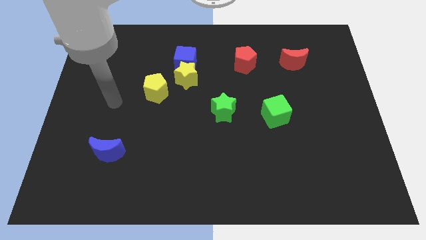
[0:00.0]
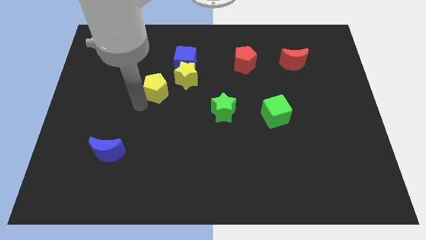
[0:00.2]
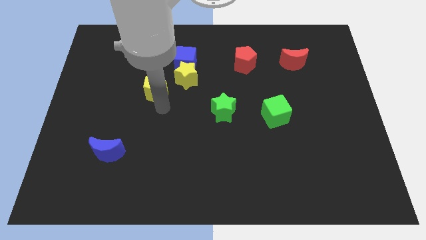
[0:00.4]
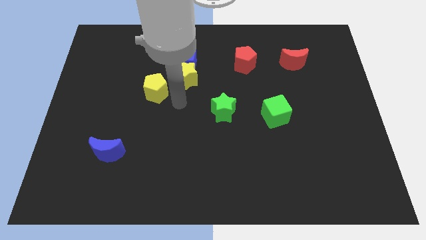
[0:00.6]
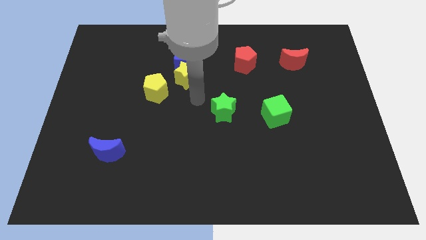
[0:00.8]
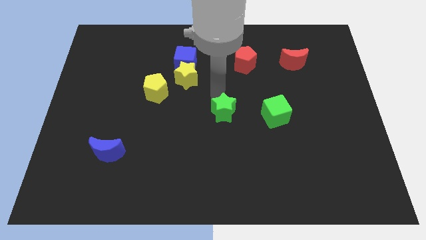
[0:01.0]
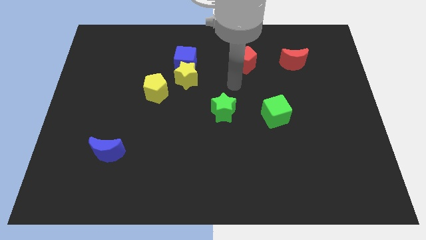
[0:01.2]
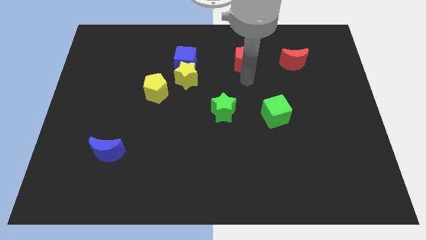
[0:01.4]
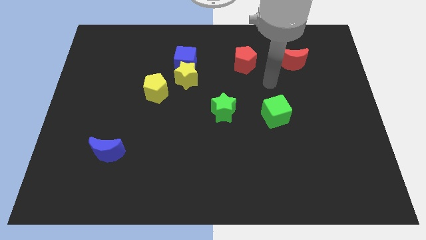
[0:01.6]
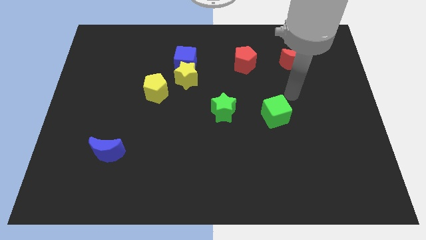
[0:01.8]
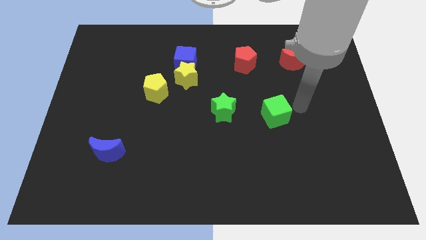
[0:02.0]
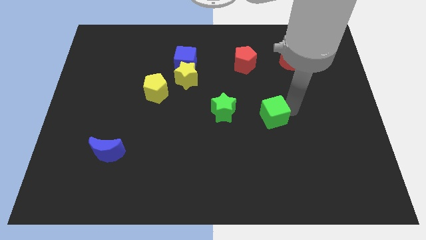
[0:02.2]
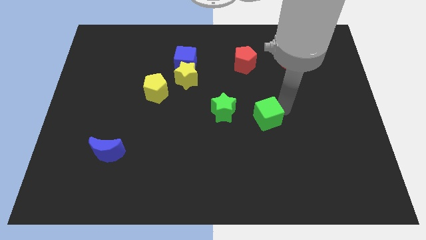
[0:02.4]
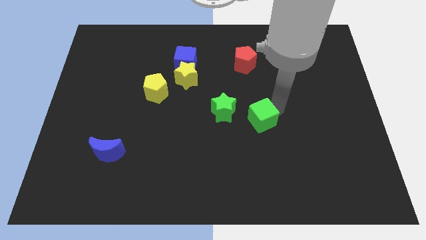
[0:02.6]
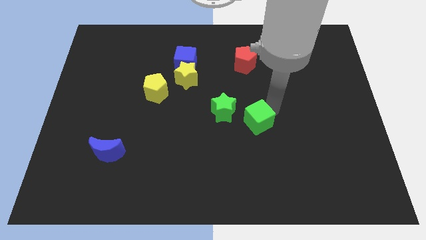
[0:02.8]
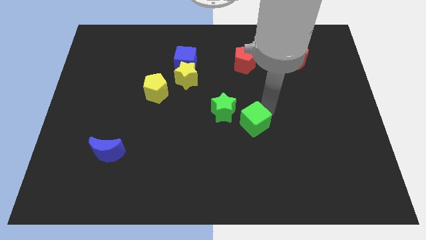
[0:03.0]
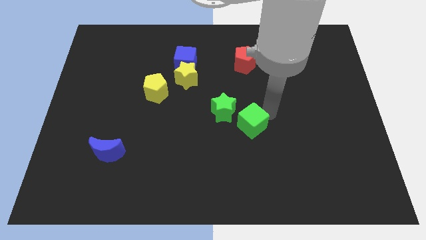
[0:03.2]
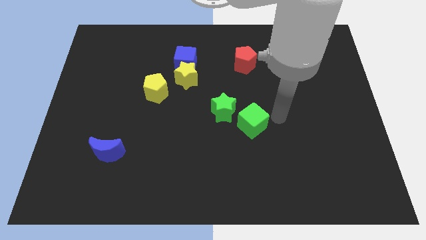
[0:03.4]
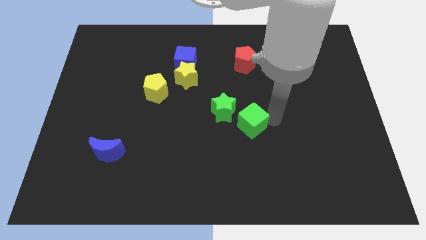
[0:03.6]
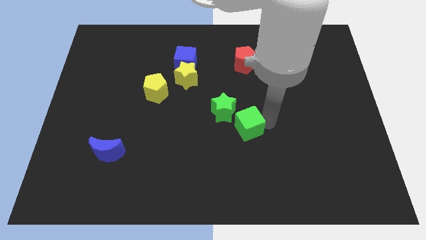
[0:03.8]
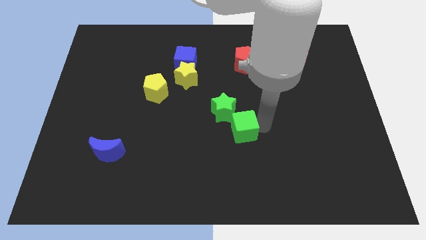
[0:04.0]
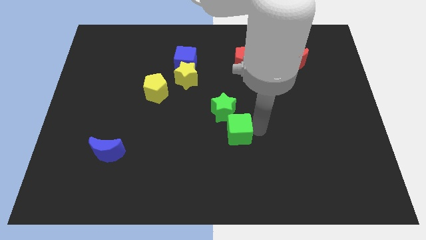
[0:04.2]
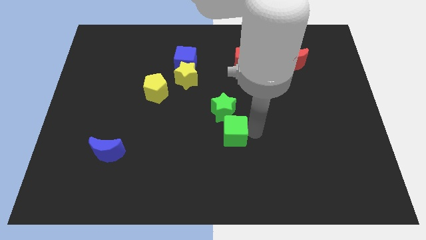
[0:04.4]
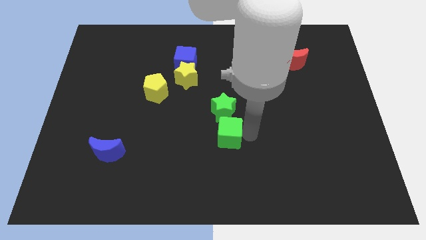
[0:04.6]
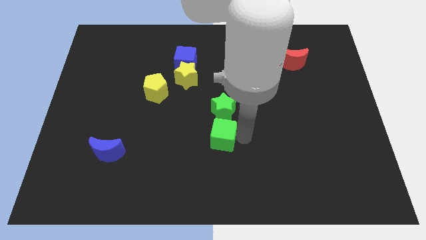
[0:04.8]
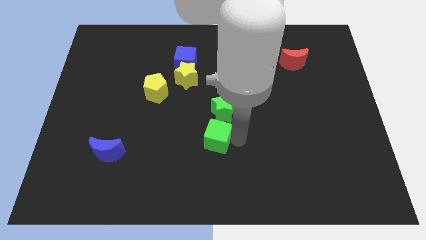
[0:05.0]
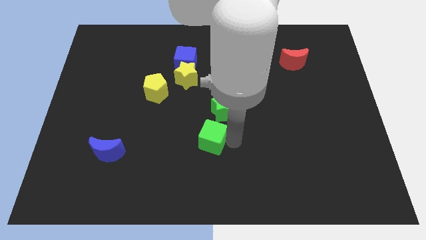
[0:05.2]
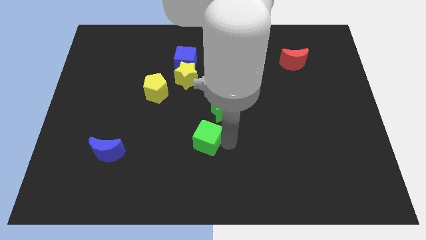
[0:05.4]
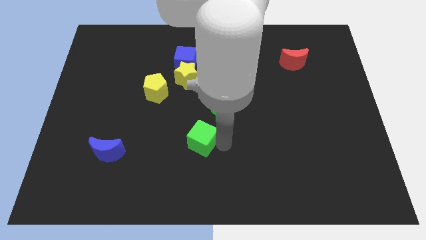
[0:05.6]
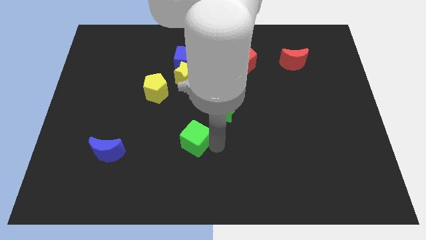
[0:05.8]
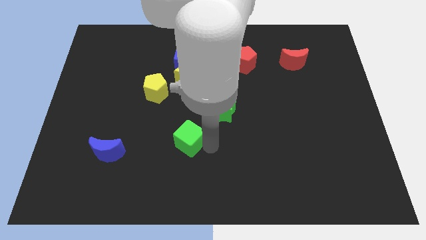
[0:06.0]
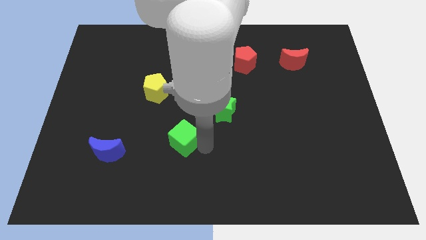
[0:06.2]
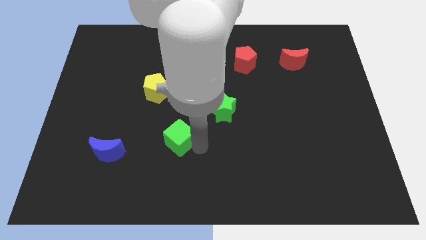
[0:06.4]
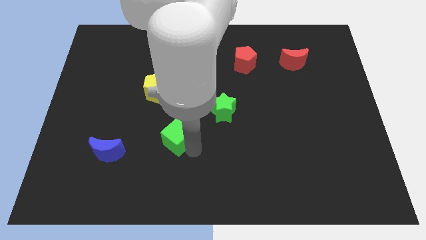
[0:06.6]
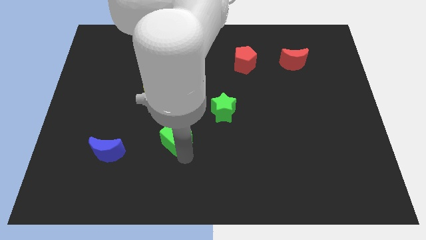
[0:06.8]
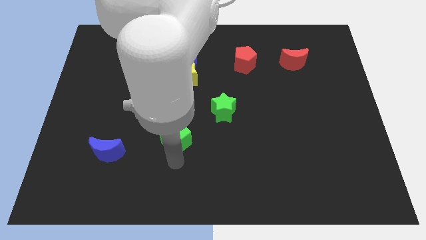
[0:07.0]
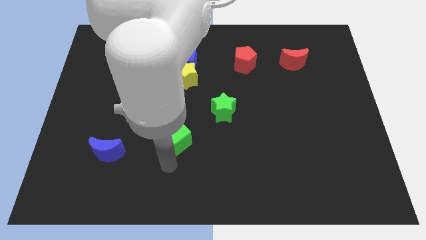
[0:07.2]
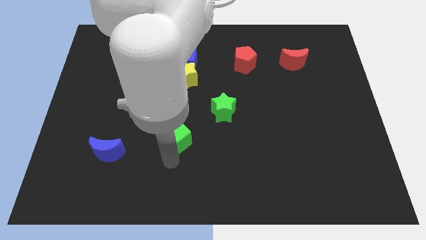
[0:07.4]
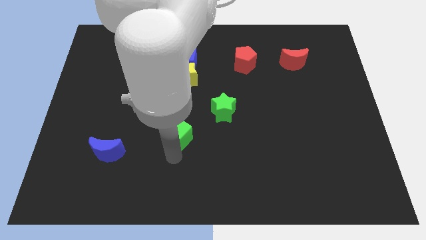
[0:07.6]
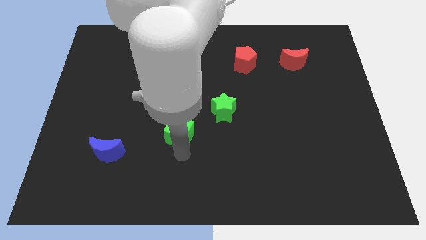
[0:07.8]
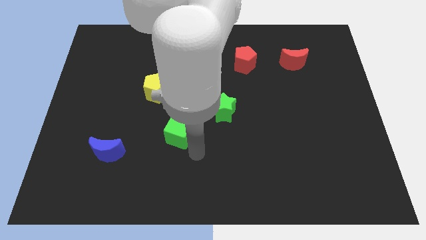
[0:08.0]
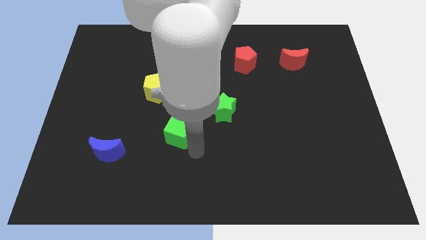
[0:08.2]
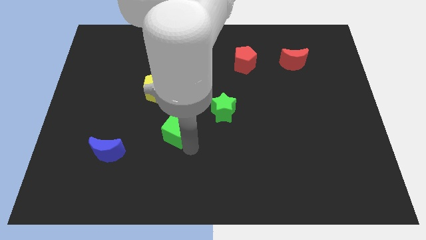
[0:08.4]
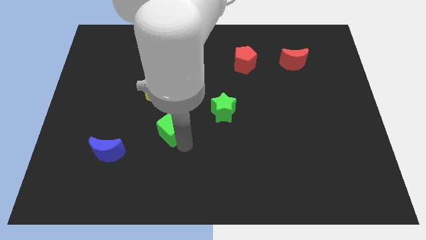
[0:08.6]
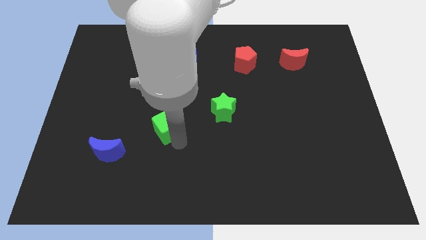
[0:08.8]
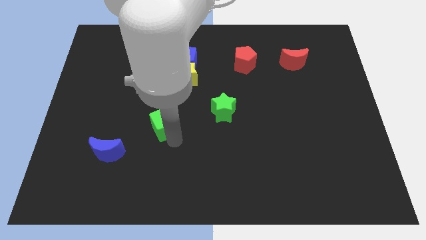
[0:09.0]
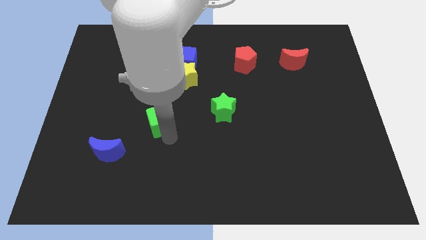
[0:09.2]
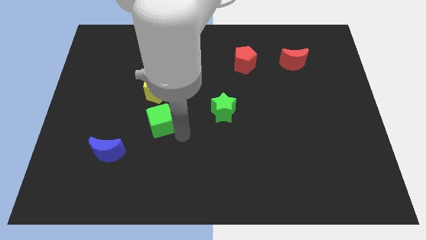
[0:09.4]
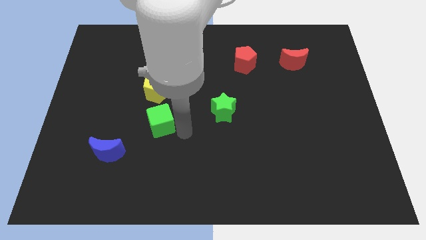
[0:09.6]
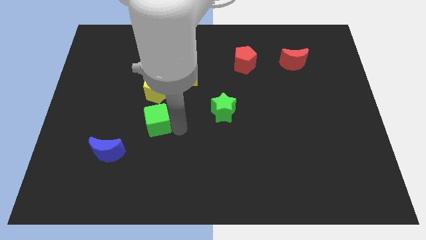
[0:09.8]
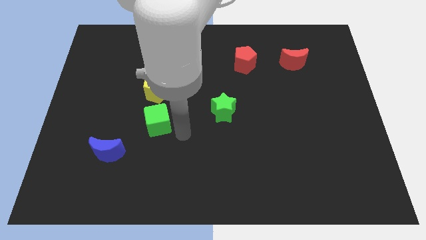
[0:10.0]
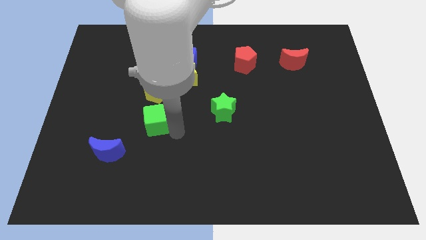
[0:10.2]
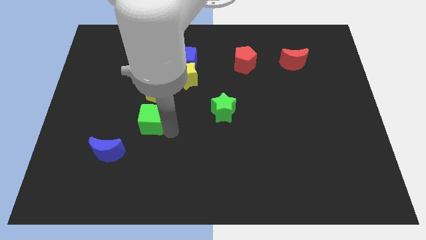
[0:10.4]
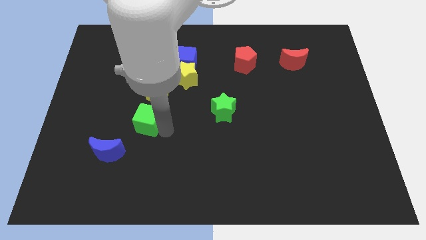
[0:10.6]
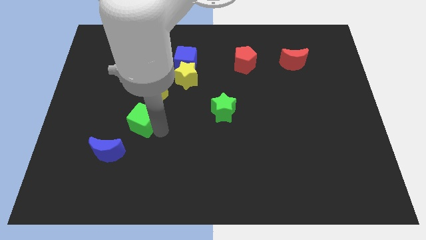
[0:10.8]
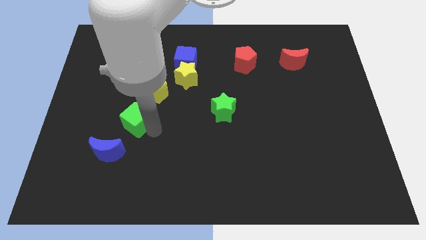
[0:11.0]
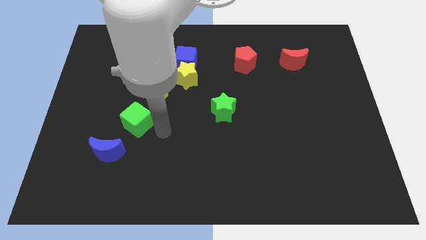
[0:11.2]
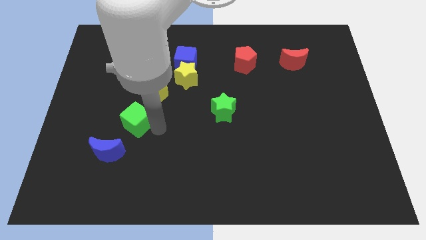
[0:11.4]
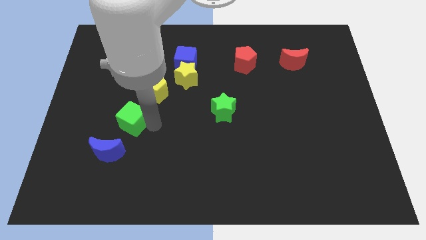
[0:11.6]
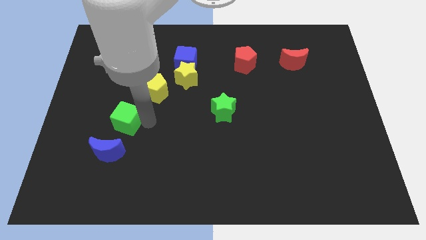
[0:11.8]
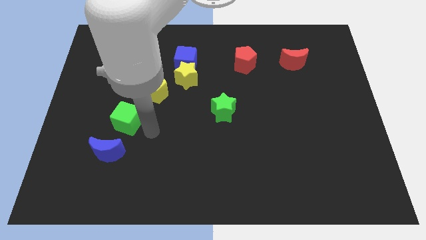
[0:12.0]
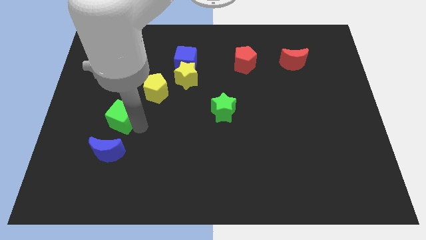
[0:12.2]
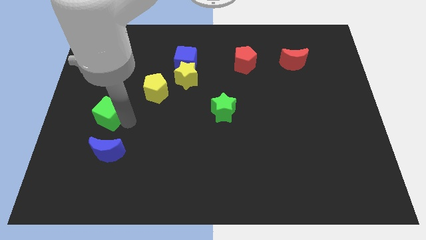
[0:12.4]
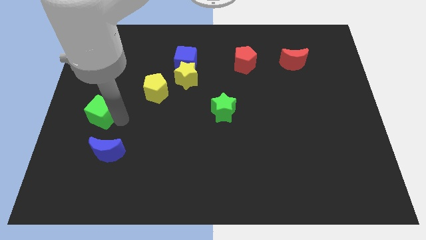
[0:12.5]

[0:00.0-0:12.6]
move the green cube to the center left
